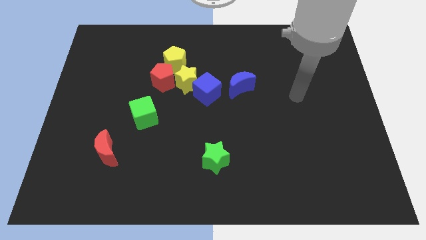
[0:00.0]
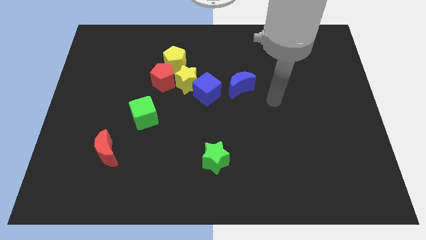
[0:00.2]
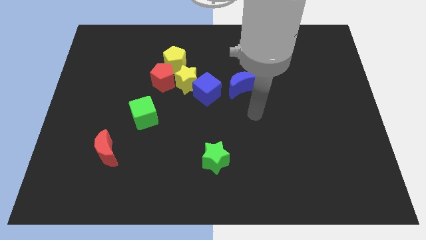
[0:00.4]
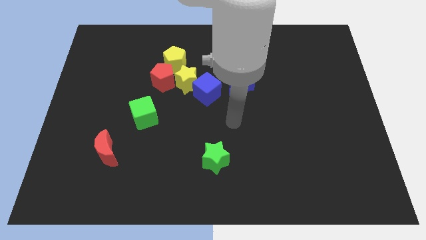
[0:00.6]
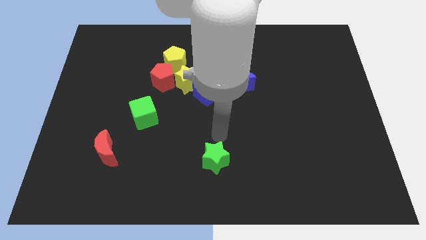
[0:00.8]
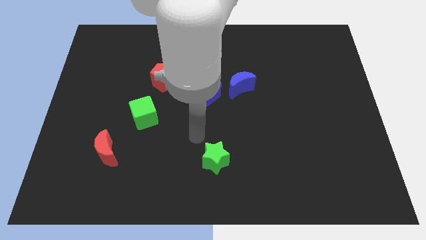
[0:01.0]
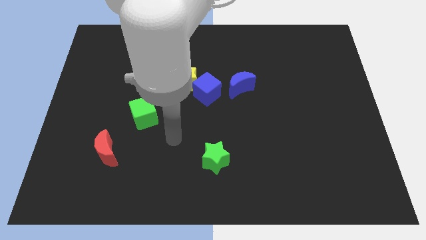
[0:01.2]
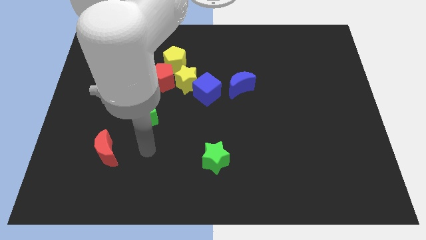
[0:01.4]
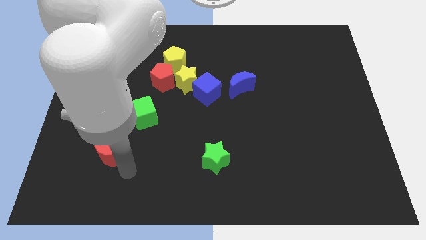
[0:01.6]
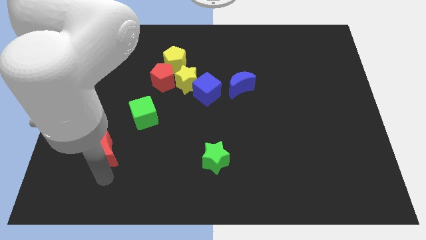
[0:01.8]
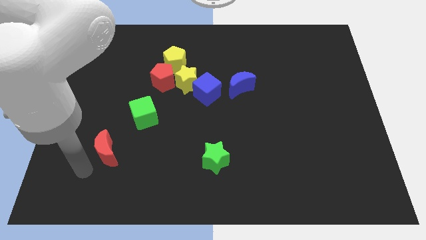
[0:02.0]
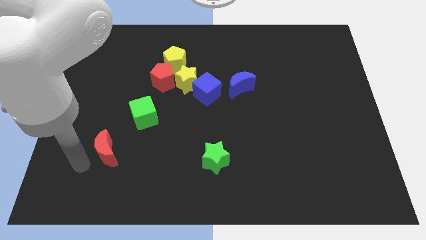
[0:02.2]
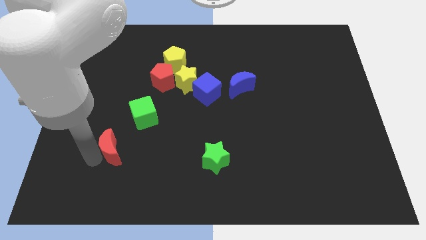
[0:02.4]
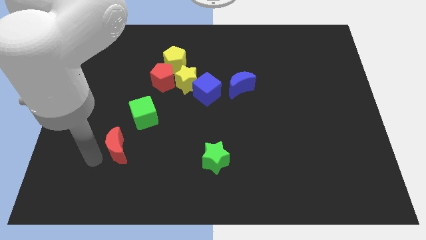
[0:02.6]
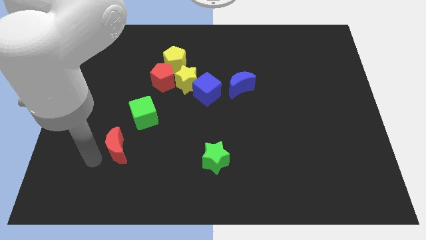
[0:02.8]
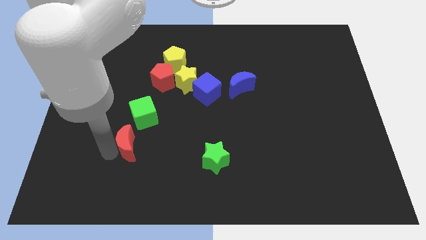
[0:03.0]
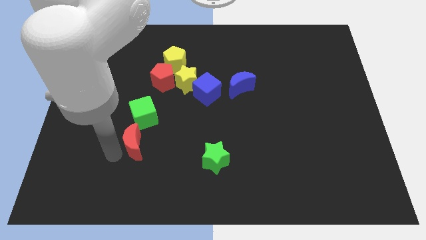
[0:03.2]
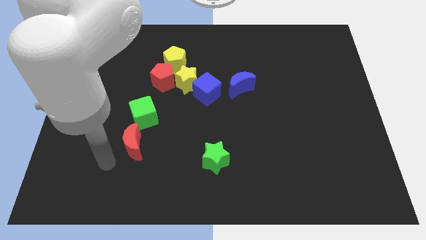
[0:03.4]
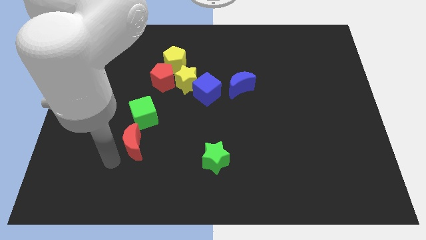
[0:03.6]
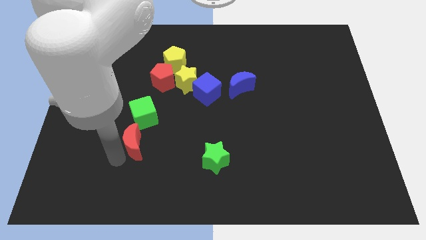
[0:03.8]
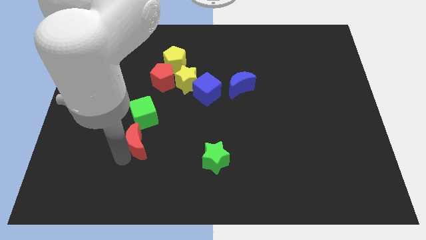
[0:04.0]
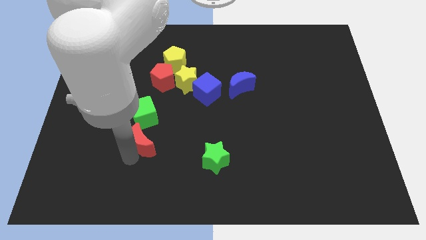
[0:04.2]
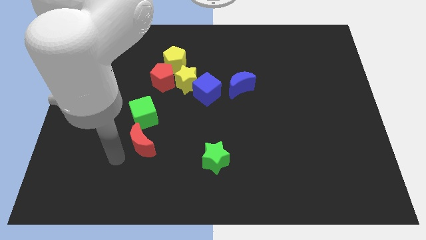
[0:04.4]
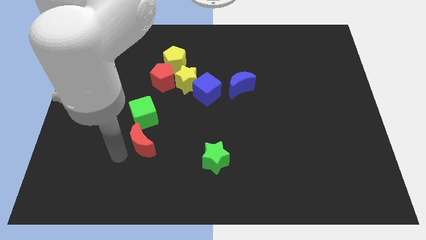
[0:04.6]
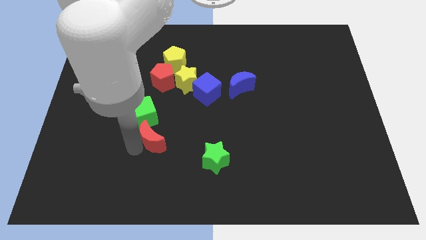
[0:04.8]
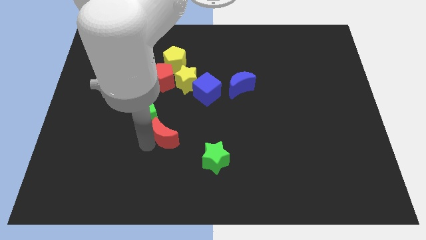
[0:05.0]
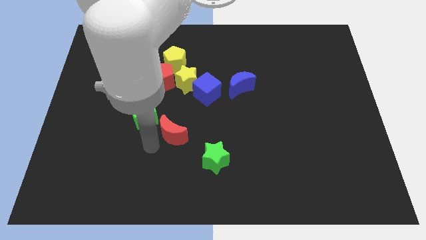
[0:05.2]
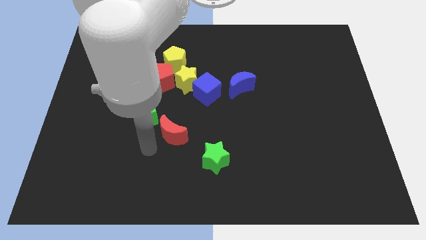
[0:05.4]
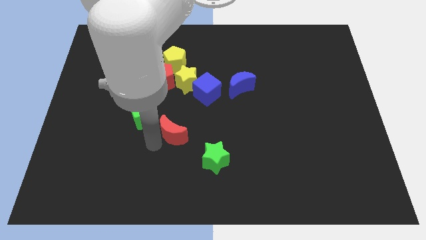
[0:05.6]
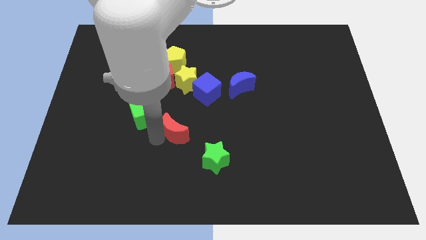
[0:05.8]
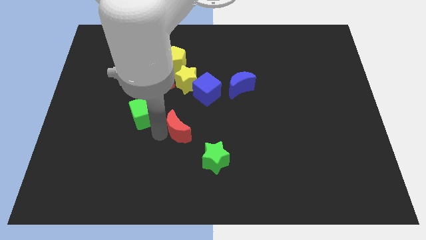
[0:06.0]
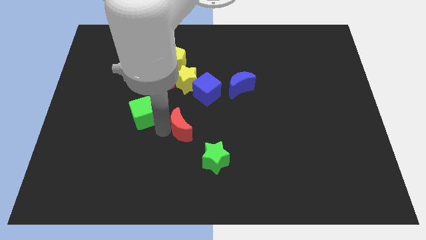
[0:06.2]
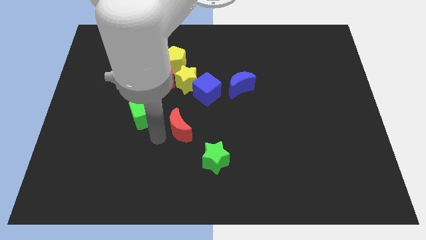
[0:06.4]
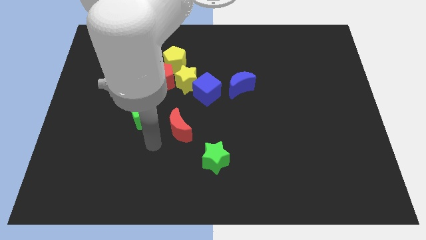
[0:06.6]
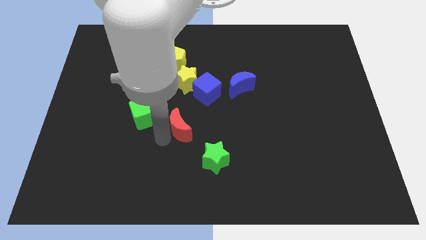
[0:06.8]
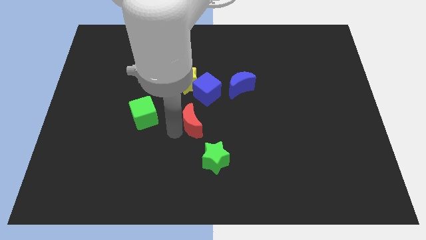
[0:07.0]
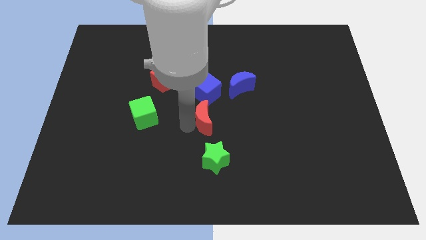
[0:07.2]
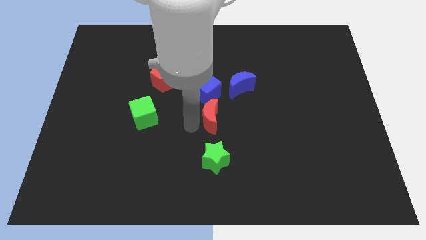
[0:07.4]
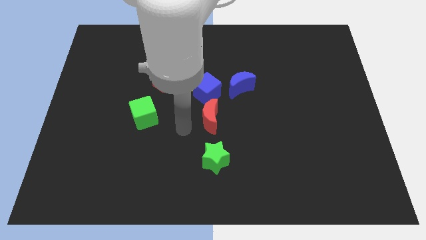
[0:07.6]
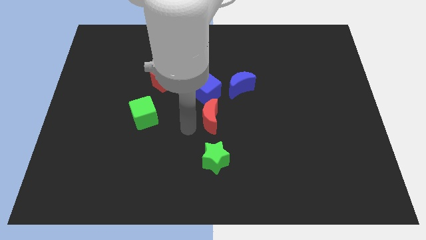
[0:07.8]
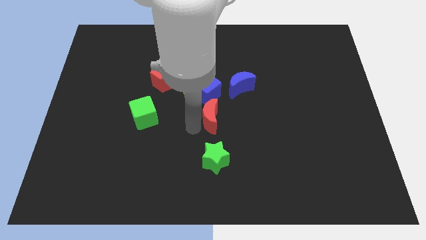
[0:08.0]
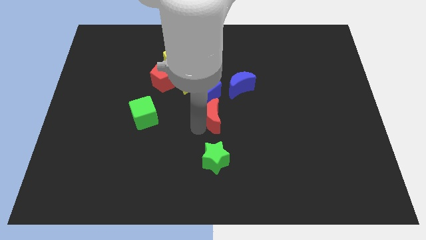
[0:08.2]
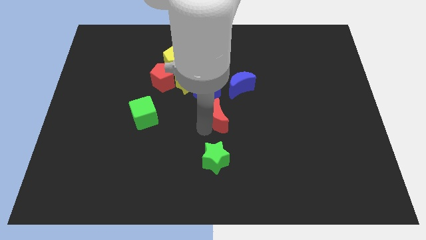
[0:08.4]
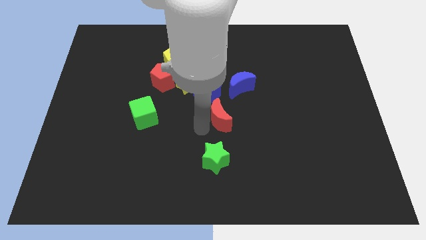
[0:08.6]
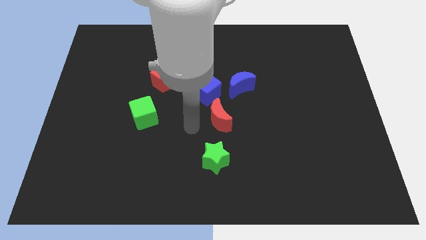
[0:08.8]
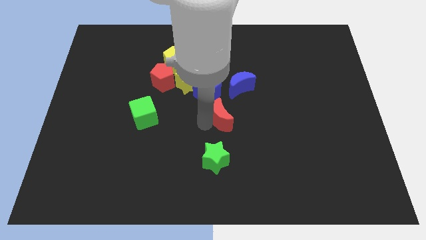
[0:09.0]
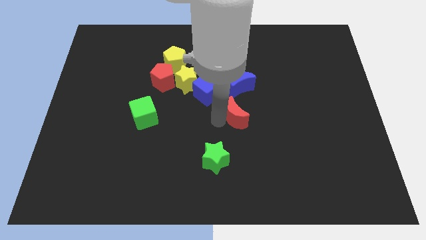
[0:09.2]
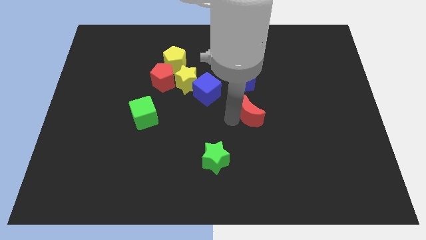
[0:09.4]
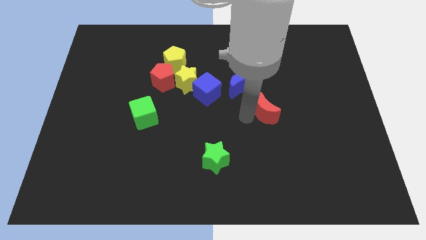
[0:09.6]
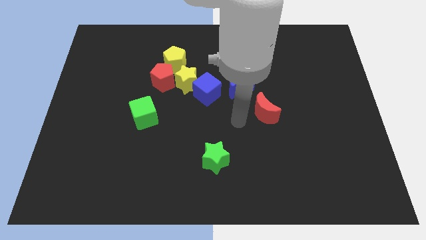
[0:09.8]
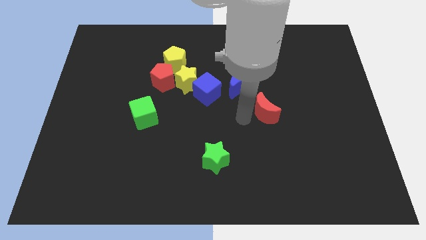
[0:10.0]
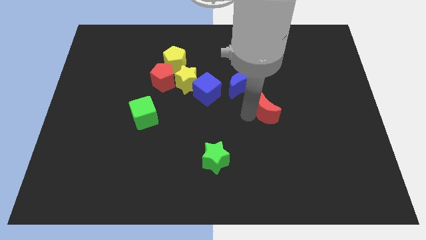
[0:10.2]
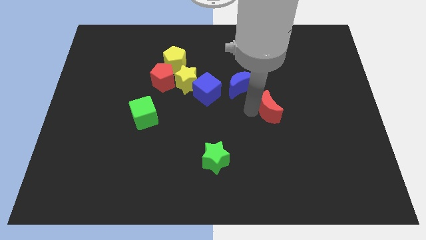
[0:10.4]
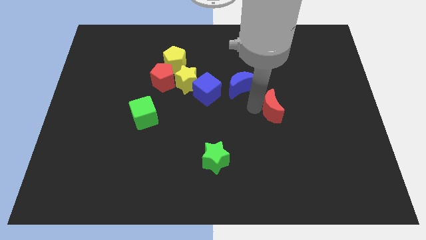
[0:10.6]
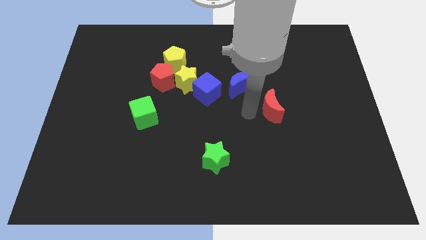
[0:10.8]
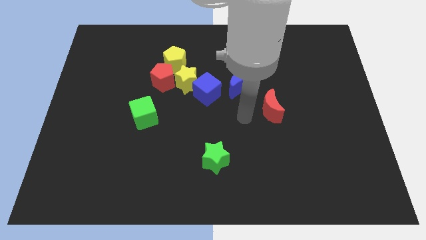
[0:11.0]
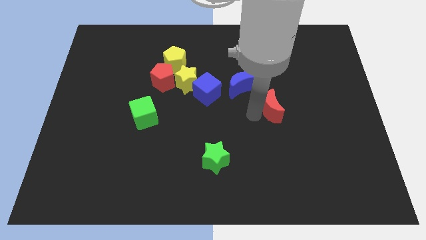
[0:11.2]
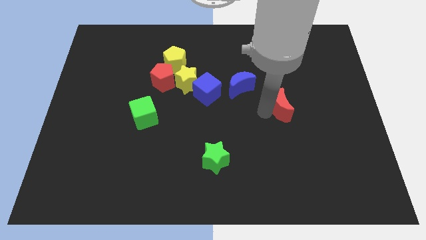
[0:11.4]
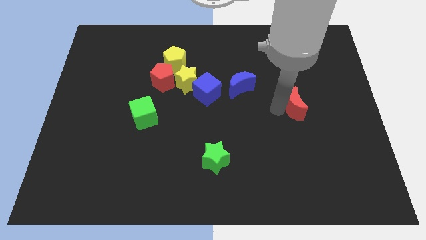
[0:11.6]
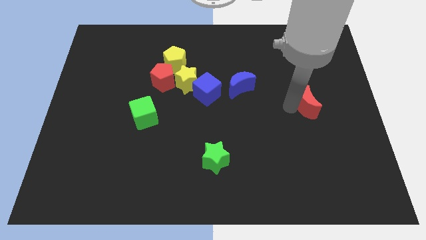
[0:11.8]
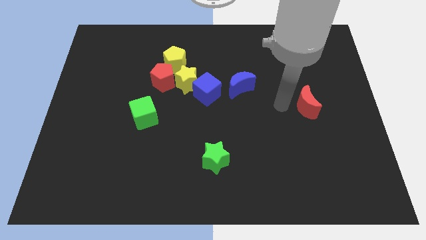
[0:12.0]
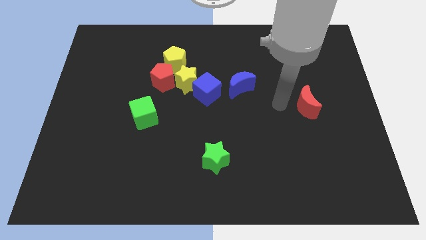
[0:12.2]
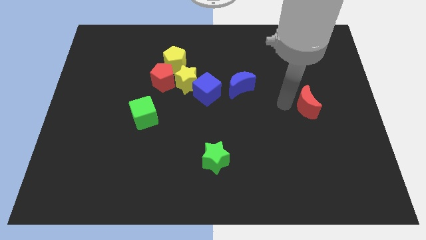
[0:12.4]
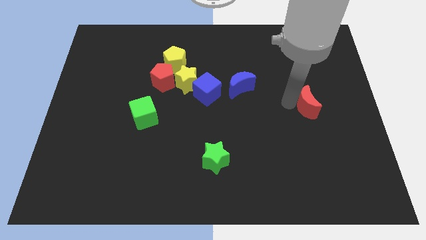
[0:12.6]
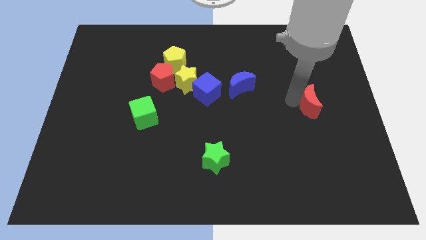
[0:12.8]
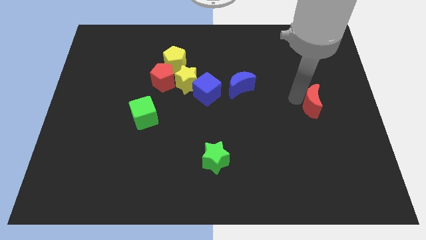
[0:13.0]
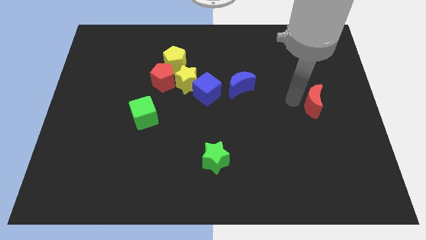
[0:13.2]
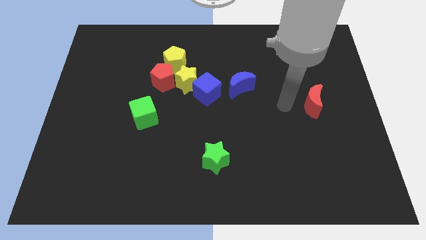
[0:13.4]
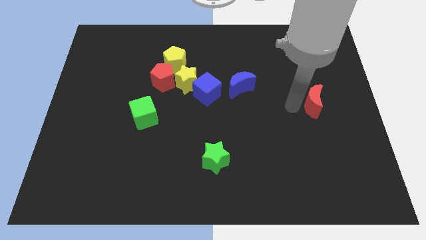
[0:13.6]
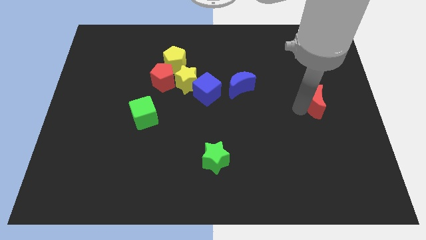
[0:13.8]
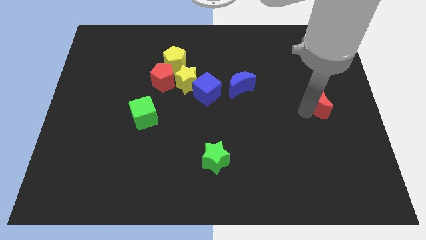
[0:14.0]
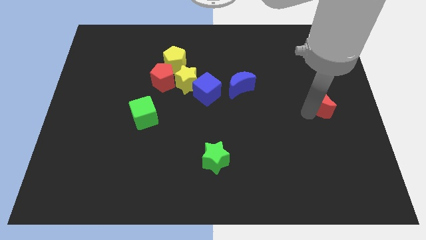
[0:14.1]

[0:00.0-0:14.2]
put the red moon to the right side
